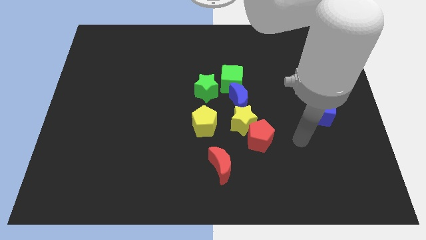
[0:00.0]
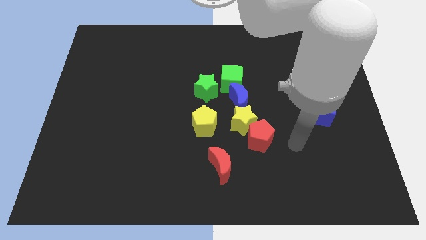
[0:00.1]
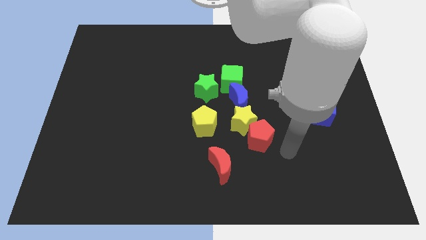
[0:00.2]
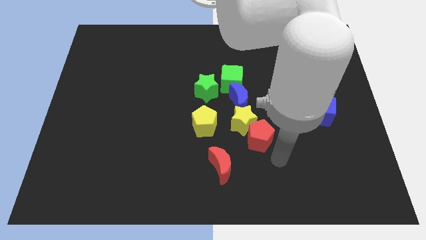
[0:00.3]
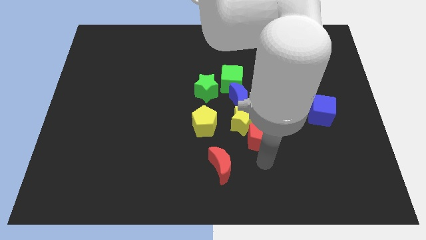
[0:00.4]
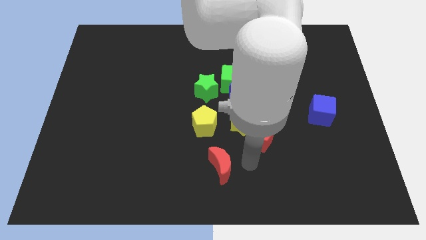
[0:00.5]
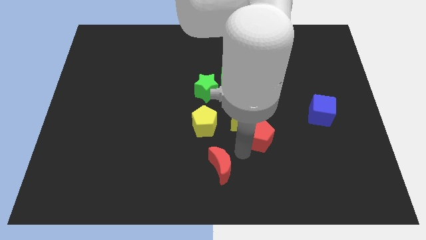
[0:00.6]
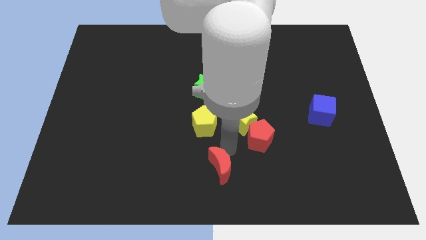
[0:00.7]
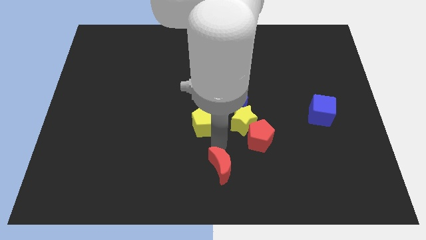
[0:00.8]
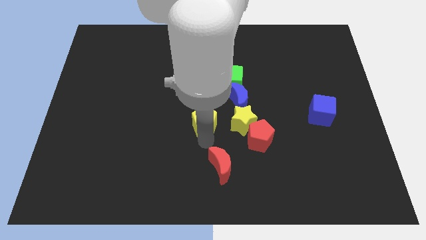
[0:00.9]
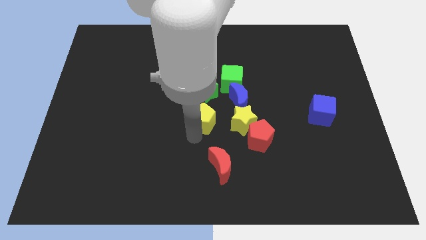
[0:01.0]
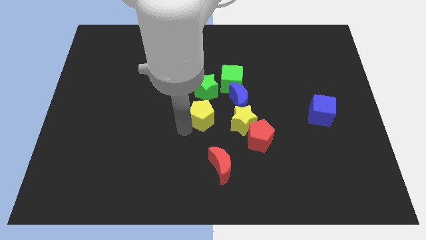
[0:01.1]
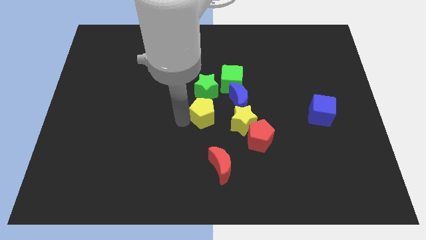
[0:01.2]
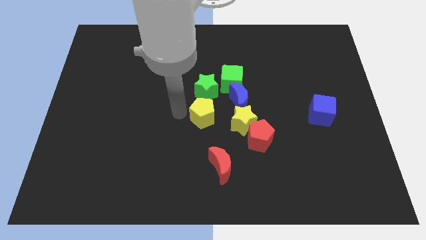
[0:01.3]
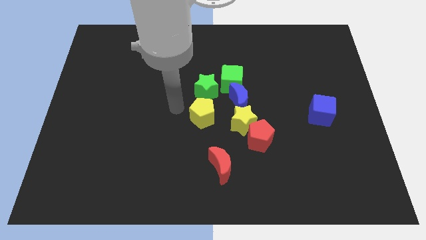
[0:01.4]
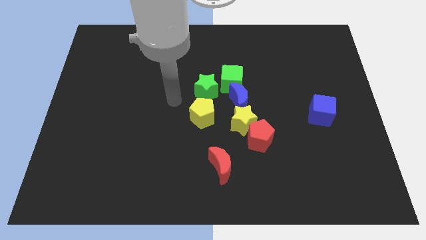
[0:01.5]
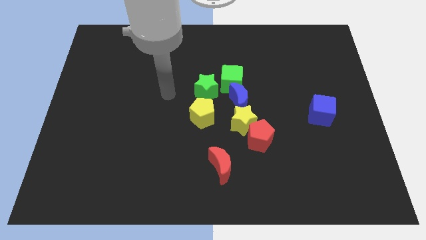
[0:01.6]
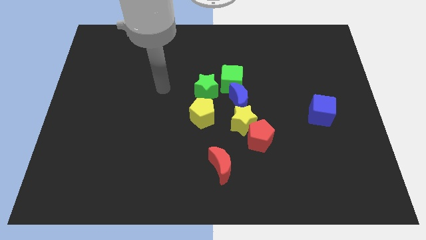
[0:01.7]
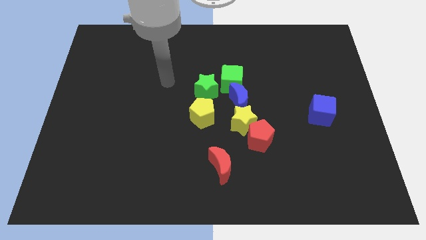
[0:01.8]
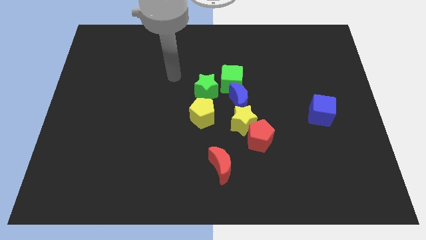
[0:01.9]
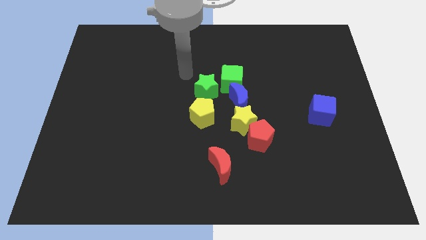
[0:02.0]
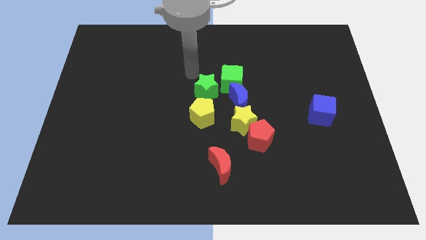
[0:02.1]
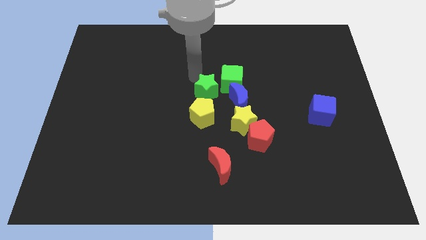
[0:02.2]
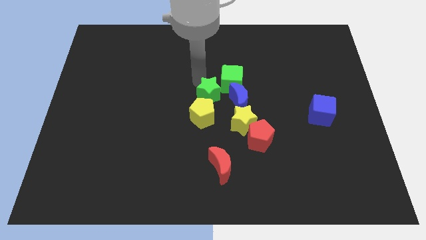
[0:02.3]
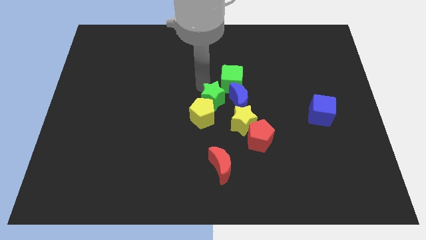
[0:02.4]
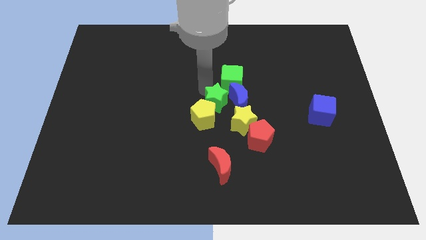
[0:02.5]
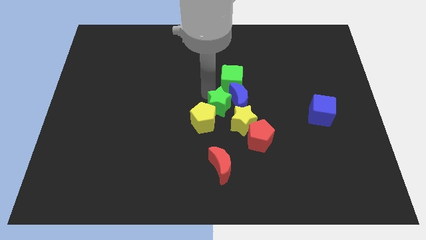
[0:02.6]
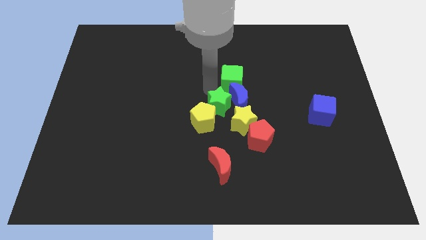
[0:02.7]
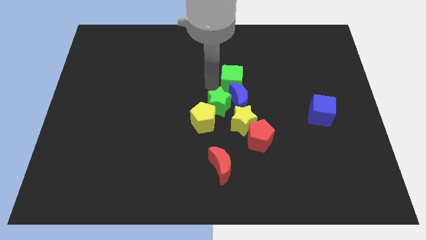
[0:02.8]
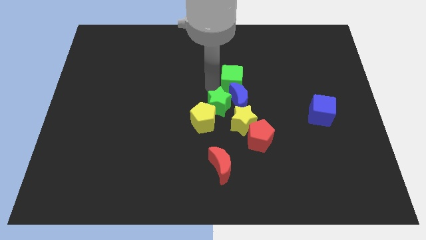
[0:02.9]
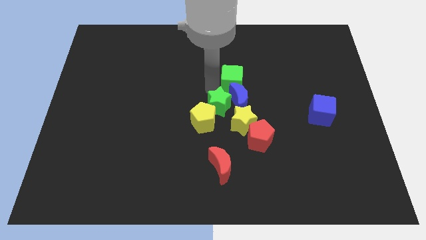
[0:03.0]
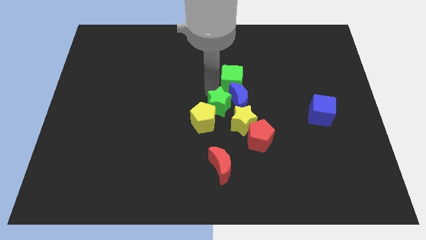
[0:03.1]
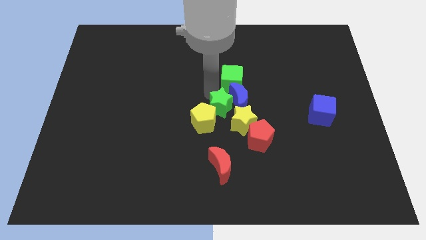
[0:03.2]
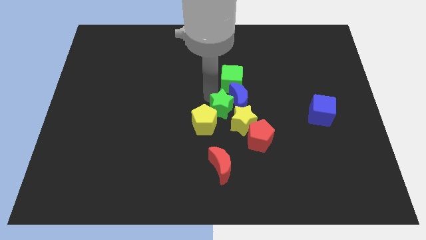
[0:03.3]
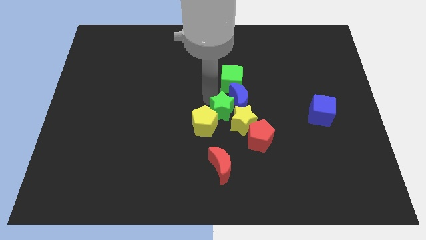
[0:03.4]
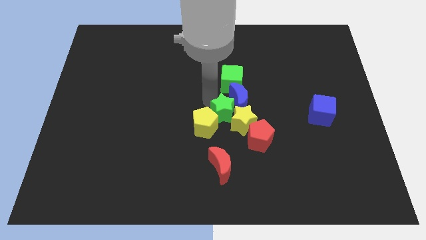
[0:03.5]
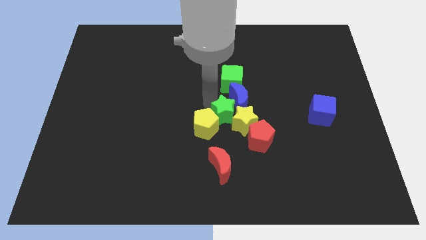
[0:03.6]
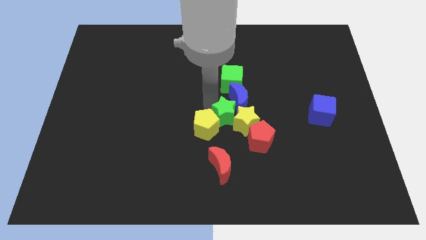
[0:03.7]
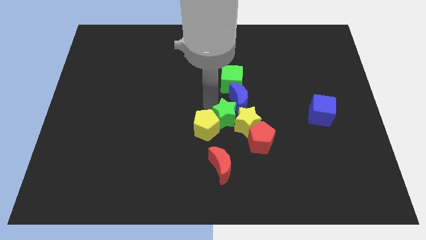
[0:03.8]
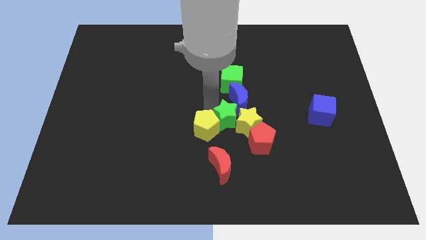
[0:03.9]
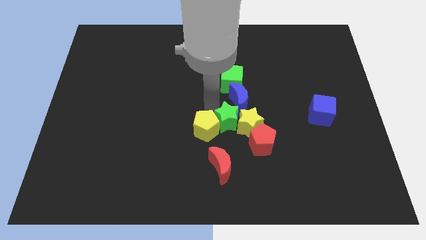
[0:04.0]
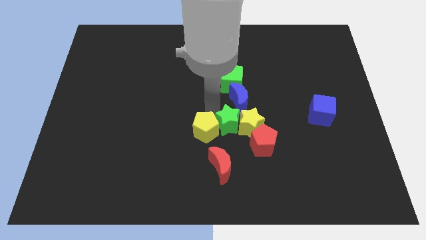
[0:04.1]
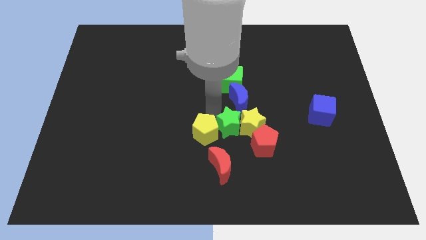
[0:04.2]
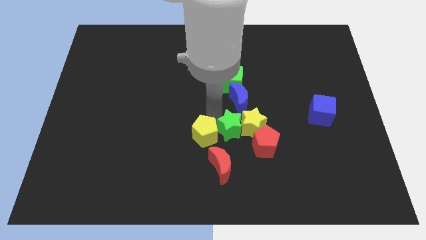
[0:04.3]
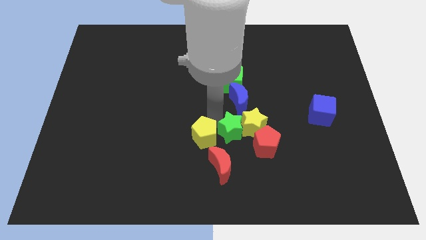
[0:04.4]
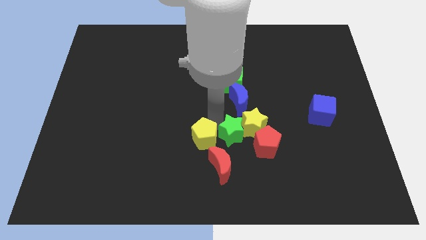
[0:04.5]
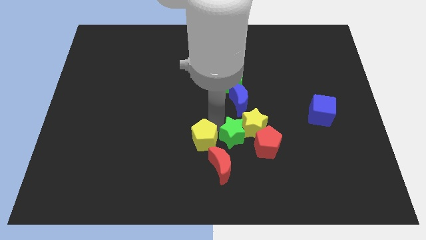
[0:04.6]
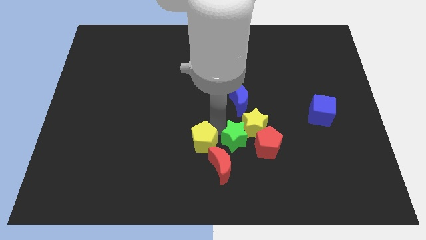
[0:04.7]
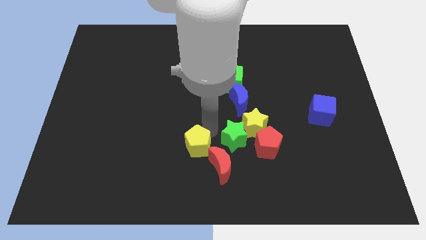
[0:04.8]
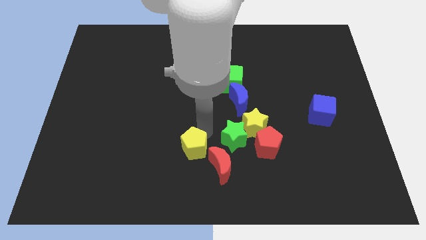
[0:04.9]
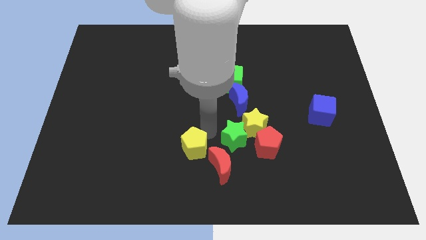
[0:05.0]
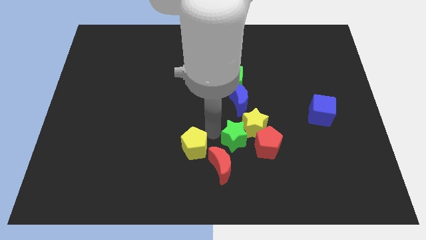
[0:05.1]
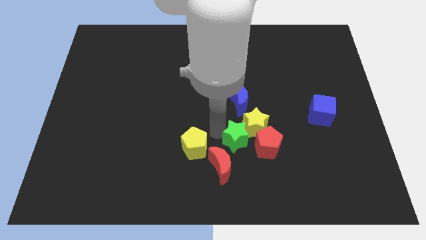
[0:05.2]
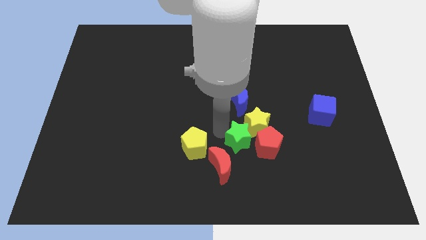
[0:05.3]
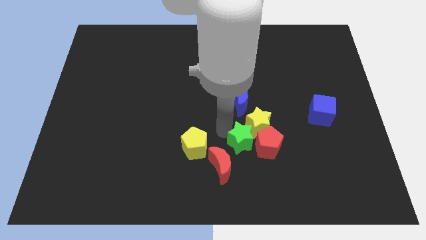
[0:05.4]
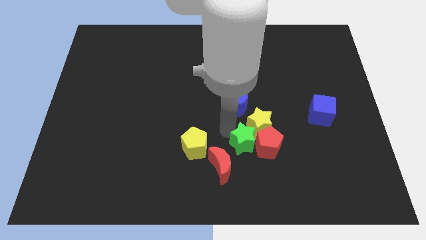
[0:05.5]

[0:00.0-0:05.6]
move the green star to the red pentagon

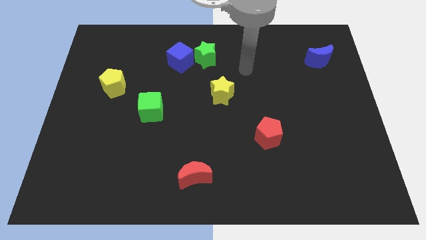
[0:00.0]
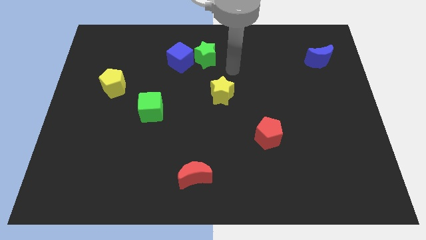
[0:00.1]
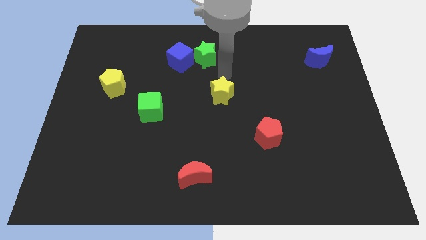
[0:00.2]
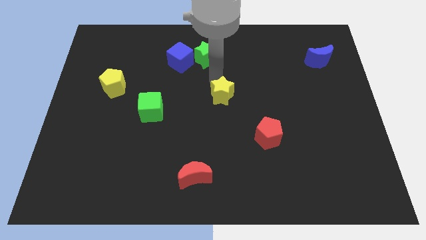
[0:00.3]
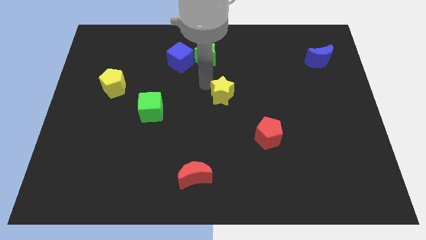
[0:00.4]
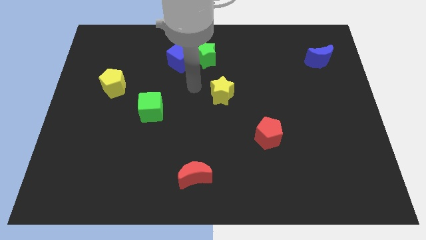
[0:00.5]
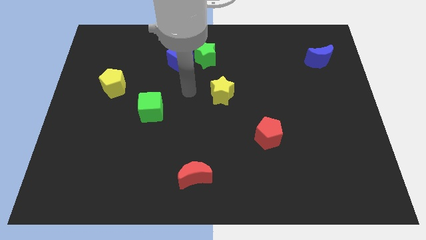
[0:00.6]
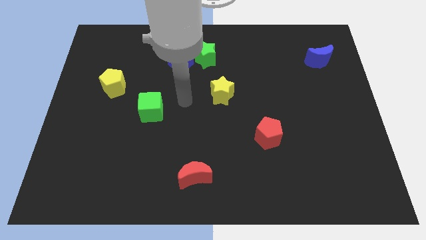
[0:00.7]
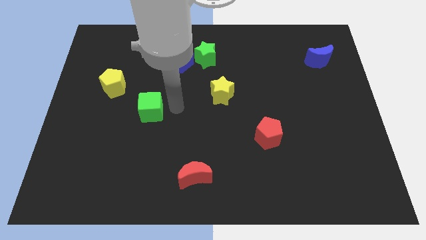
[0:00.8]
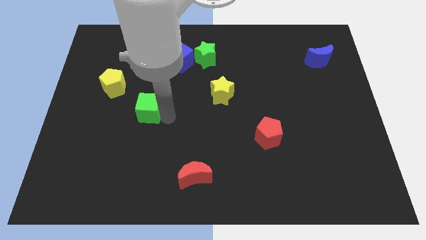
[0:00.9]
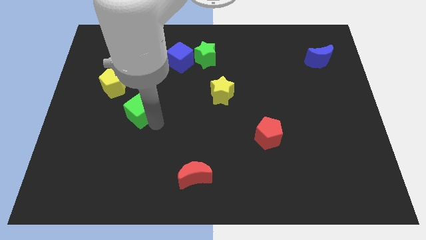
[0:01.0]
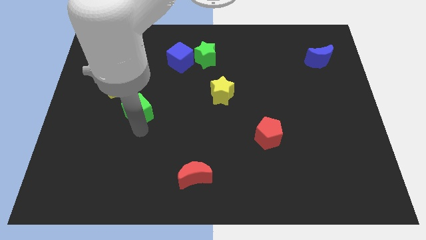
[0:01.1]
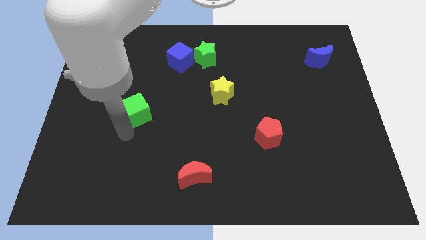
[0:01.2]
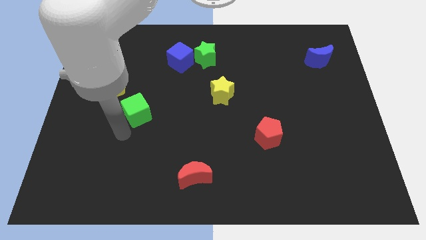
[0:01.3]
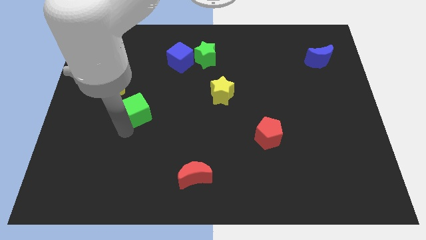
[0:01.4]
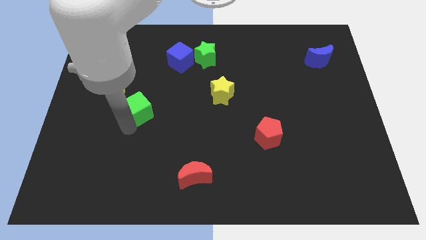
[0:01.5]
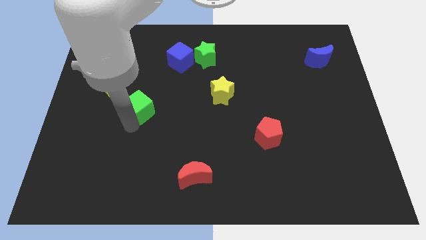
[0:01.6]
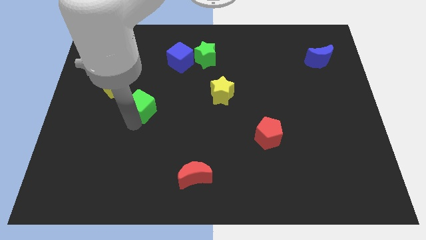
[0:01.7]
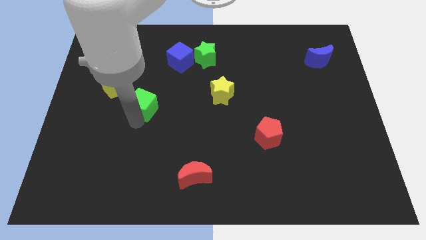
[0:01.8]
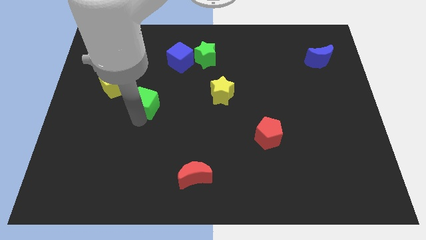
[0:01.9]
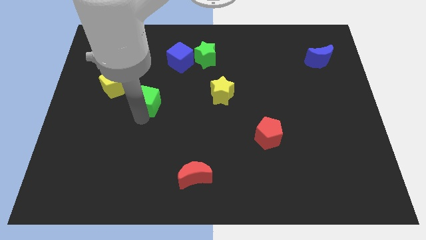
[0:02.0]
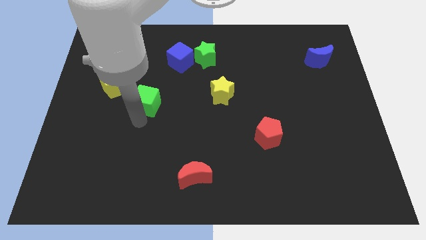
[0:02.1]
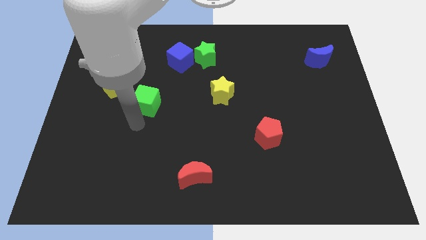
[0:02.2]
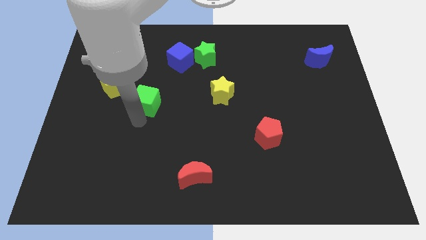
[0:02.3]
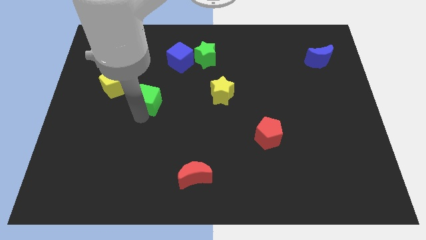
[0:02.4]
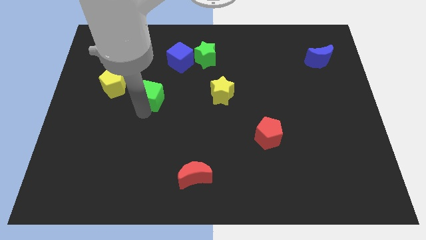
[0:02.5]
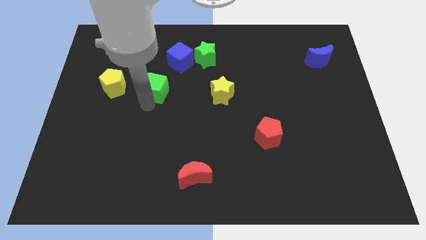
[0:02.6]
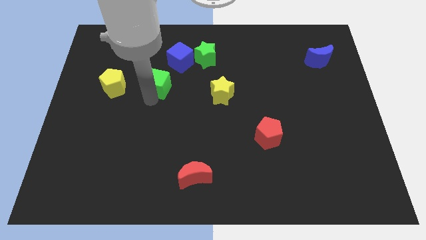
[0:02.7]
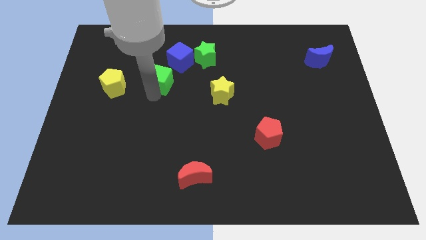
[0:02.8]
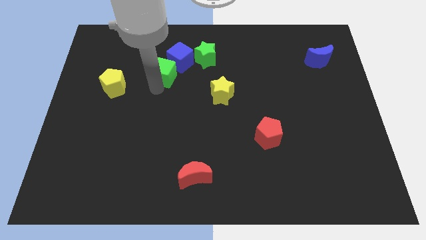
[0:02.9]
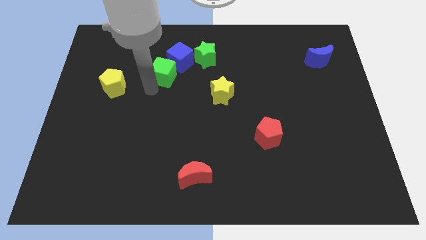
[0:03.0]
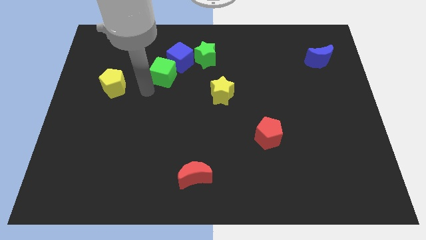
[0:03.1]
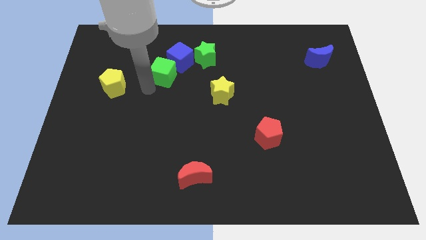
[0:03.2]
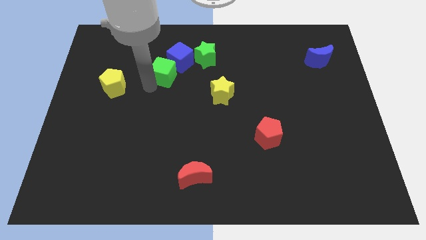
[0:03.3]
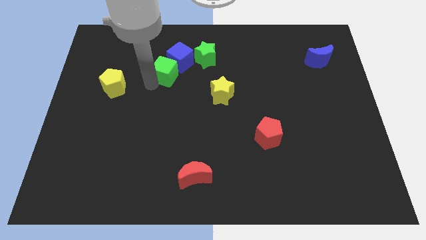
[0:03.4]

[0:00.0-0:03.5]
move the green cube close to the blue cube
